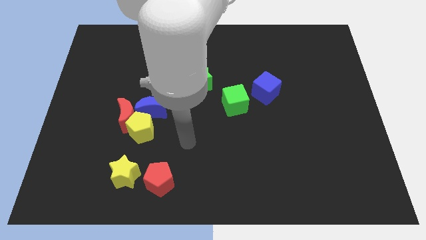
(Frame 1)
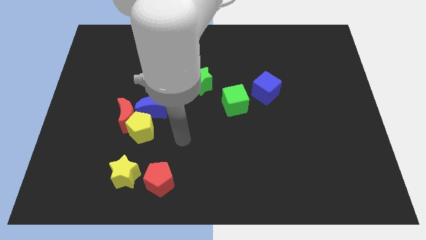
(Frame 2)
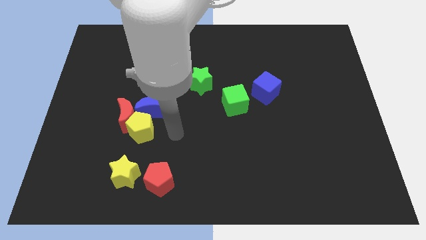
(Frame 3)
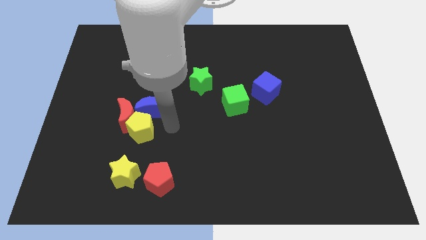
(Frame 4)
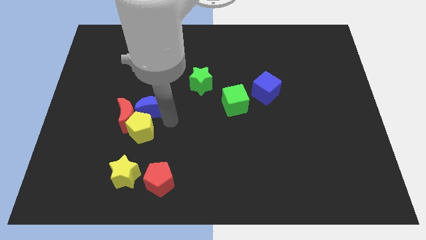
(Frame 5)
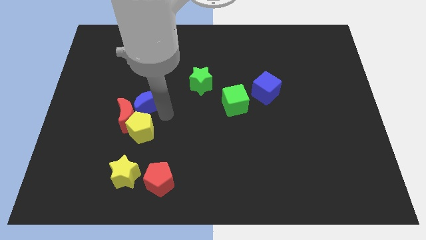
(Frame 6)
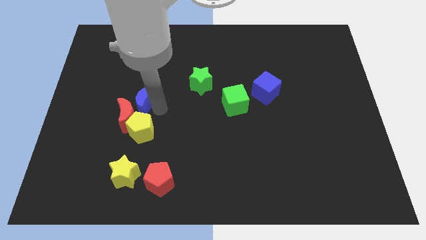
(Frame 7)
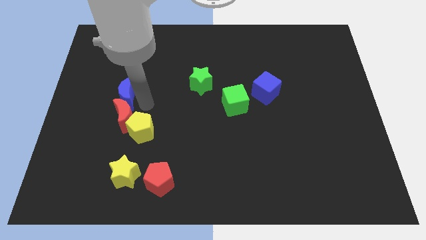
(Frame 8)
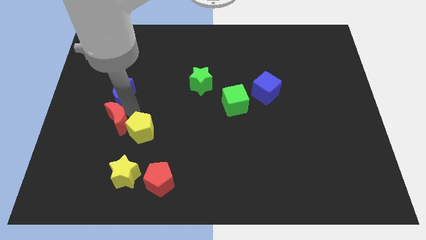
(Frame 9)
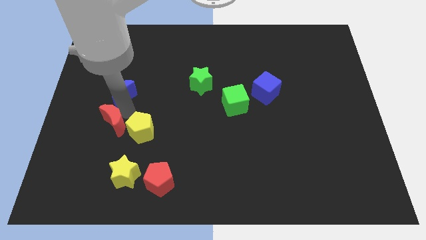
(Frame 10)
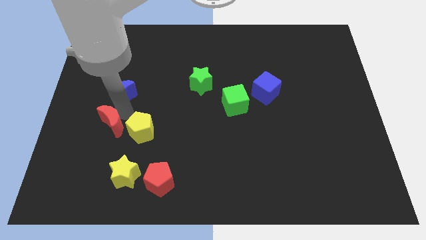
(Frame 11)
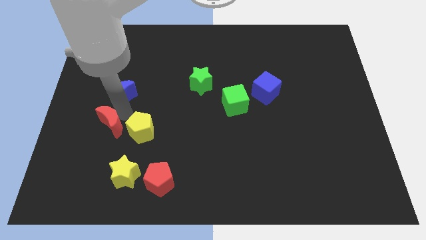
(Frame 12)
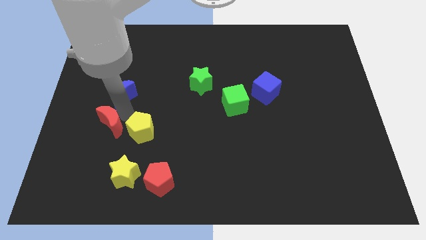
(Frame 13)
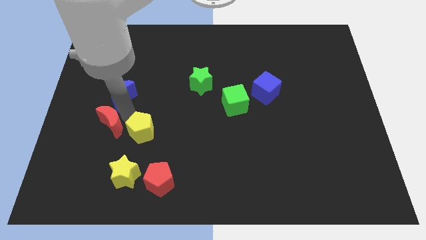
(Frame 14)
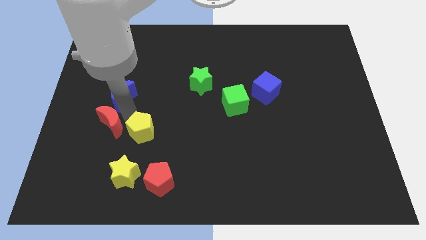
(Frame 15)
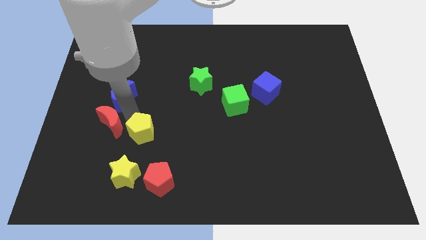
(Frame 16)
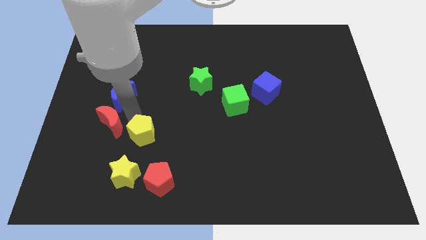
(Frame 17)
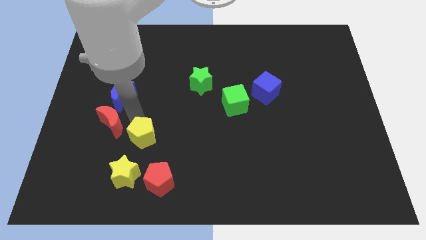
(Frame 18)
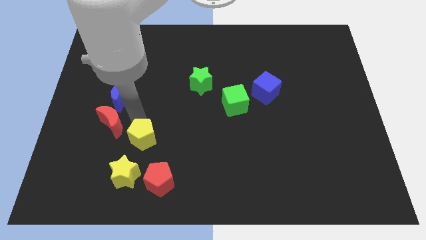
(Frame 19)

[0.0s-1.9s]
separate the yellow pentagon from the red moon and blue moon

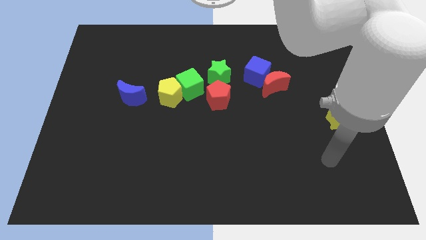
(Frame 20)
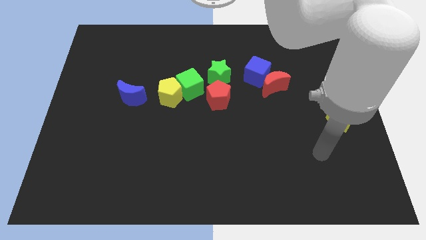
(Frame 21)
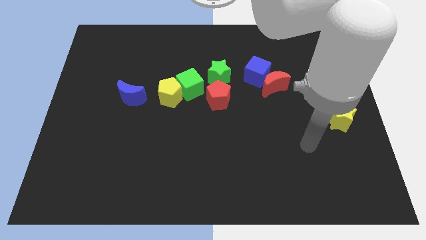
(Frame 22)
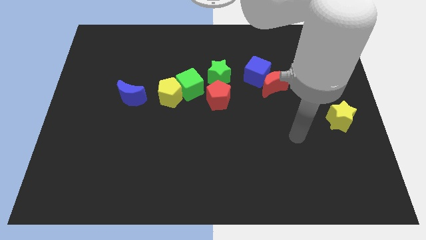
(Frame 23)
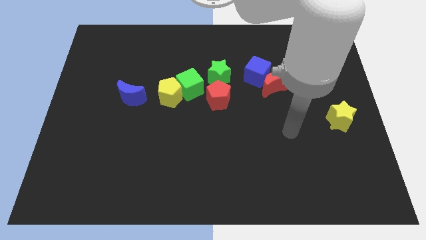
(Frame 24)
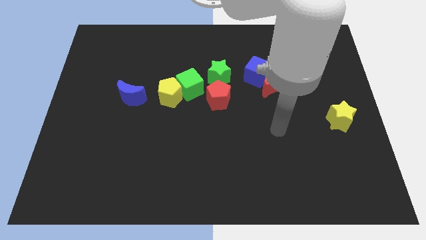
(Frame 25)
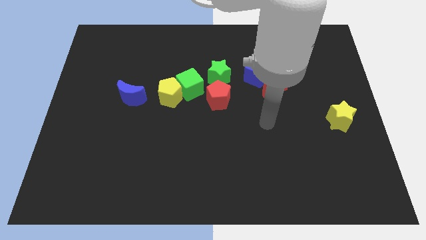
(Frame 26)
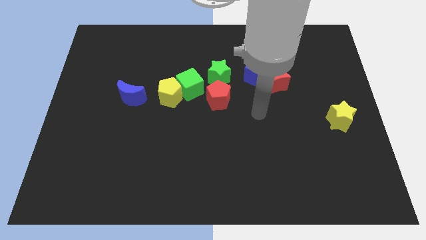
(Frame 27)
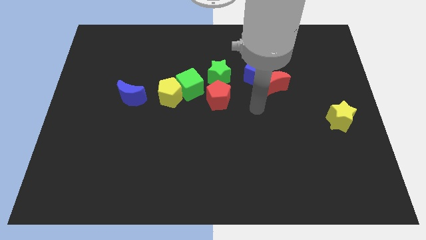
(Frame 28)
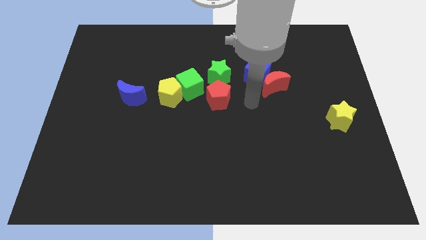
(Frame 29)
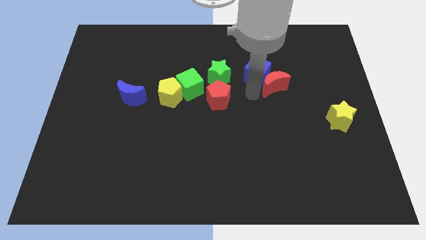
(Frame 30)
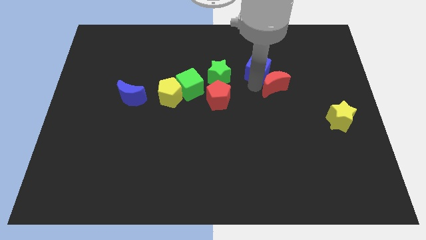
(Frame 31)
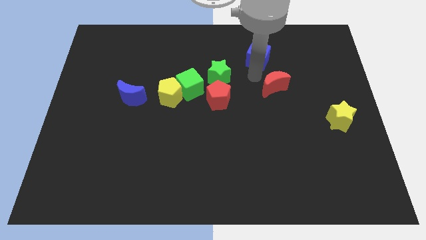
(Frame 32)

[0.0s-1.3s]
move the red moon away from the blue cube

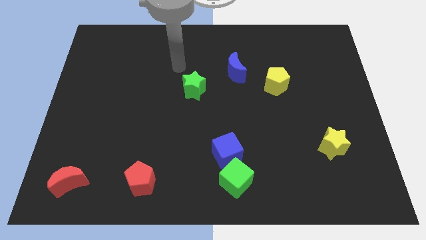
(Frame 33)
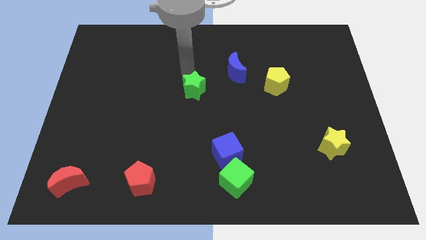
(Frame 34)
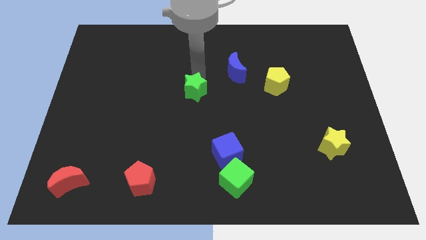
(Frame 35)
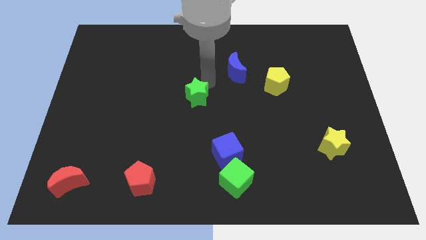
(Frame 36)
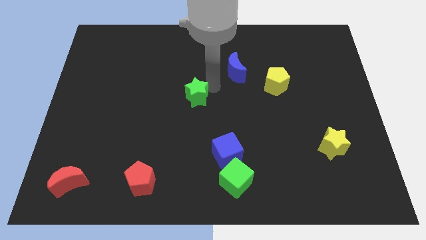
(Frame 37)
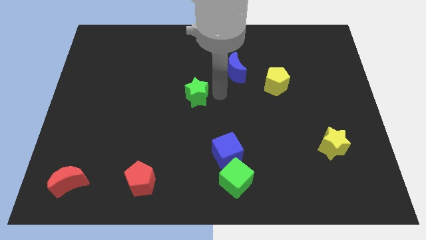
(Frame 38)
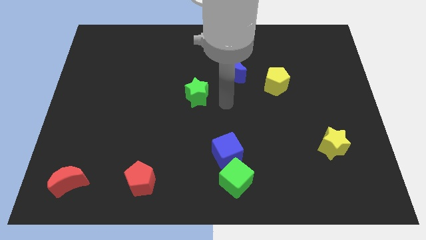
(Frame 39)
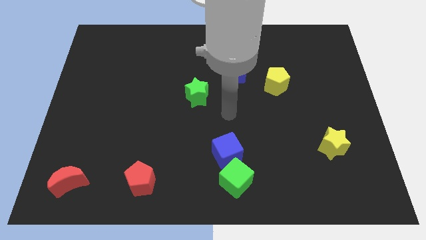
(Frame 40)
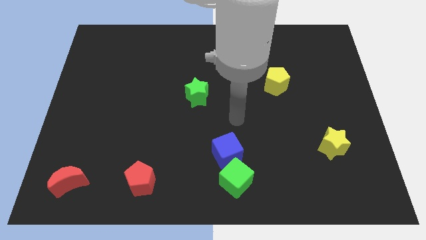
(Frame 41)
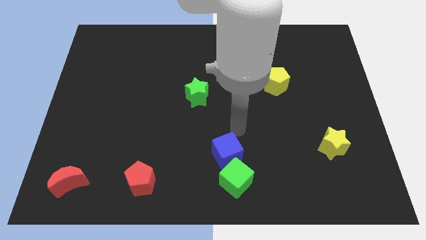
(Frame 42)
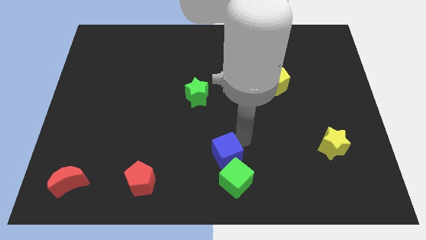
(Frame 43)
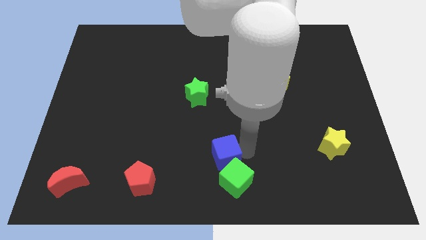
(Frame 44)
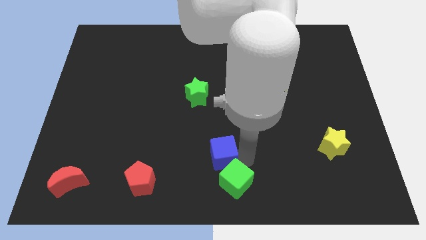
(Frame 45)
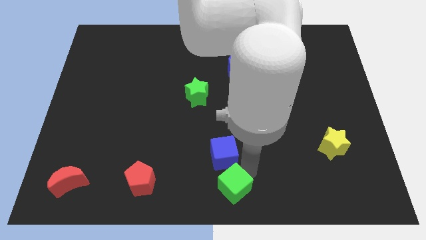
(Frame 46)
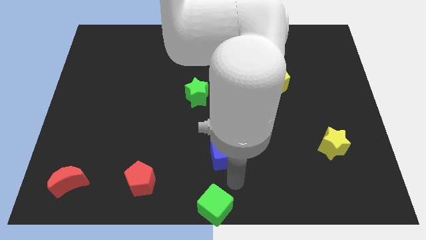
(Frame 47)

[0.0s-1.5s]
pull the blue cube apart from the green cube

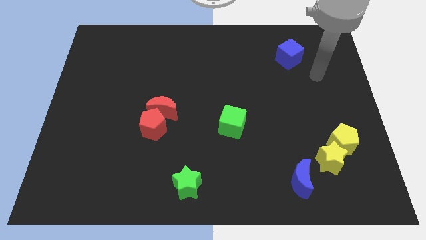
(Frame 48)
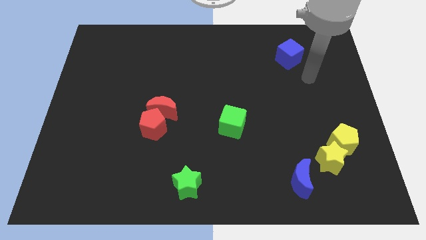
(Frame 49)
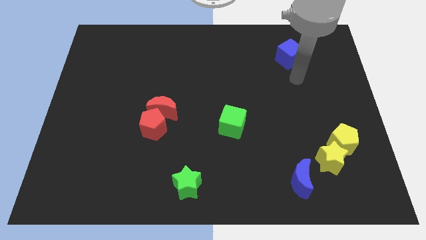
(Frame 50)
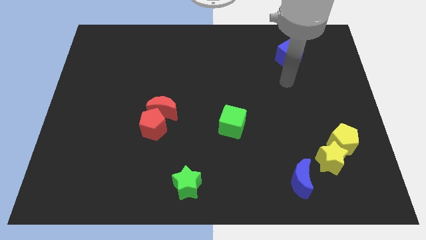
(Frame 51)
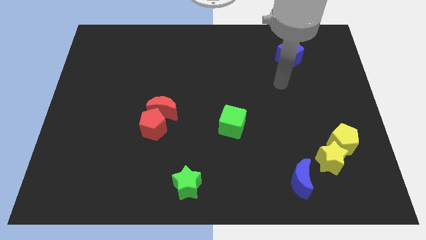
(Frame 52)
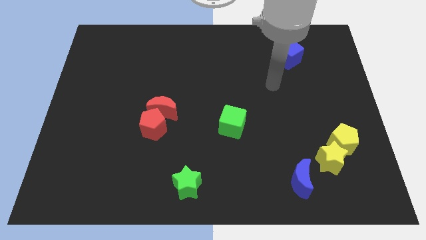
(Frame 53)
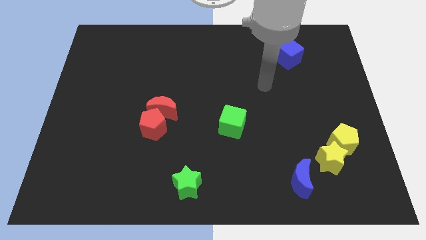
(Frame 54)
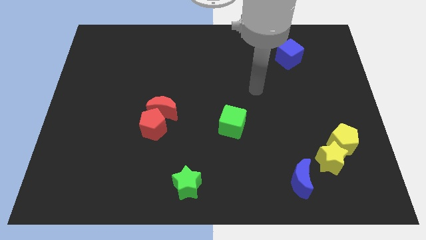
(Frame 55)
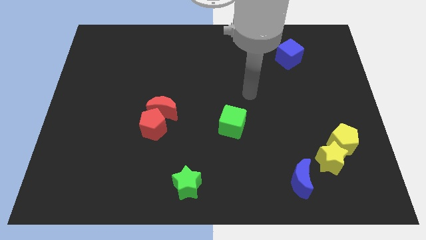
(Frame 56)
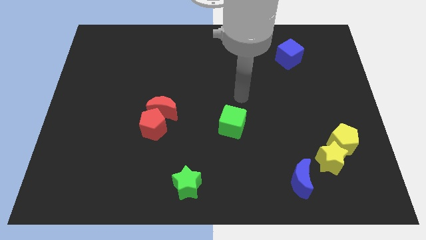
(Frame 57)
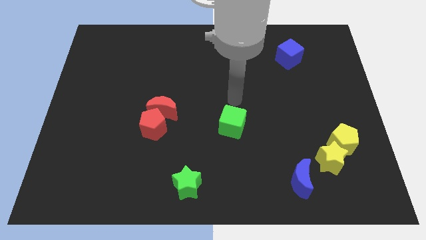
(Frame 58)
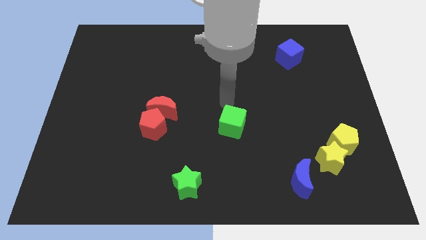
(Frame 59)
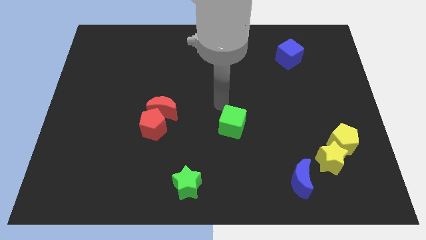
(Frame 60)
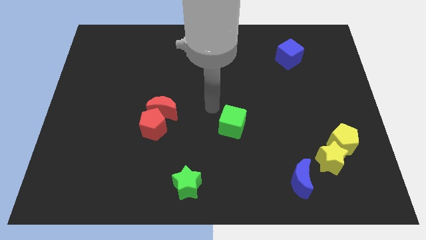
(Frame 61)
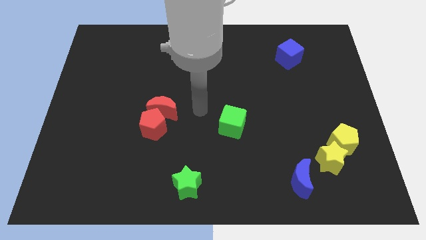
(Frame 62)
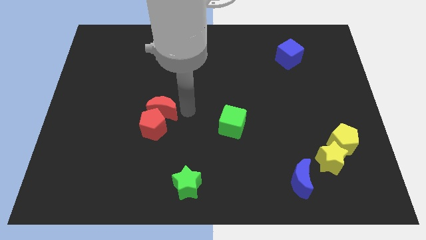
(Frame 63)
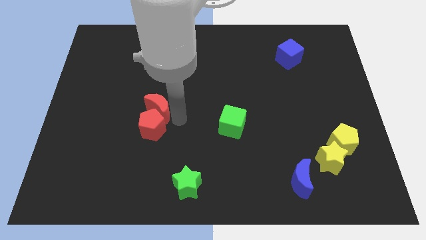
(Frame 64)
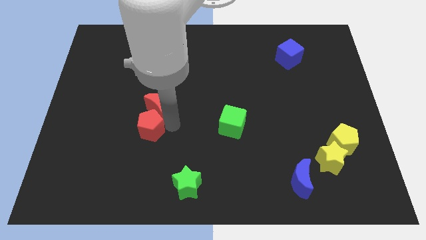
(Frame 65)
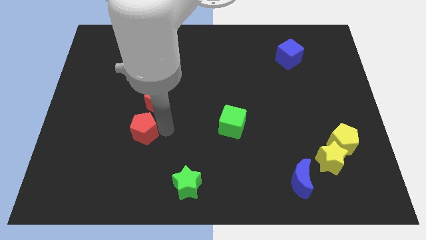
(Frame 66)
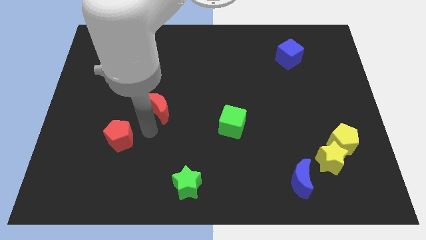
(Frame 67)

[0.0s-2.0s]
separate the red moon from the red pentagon

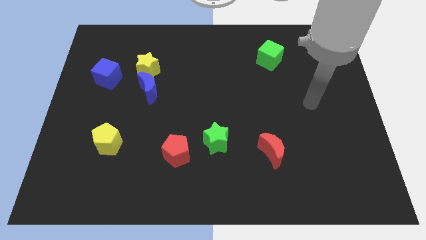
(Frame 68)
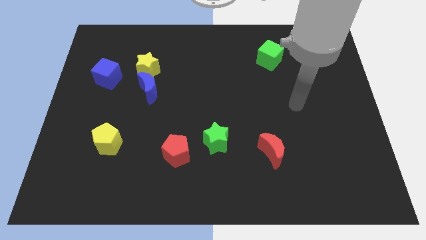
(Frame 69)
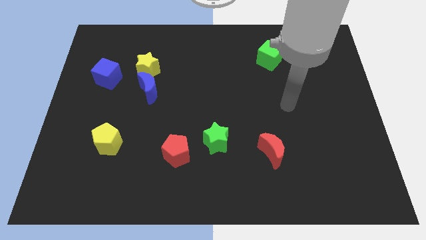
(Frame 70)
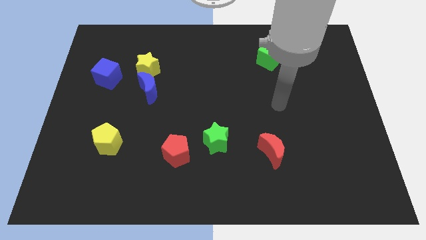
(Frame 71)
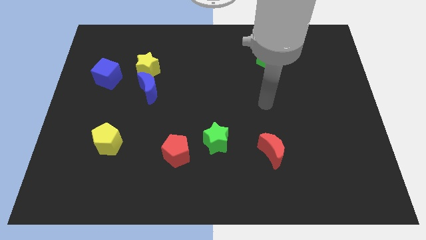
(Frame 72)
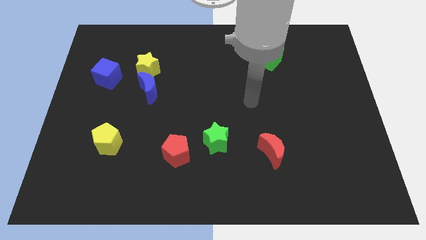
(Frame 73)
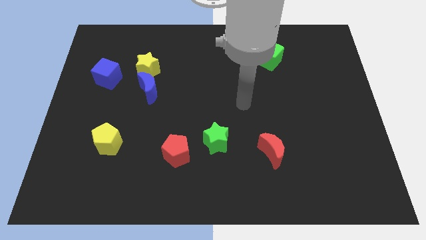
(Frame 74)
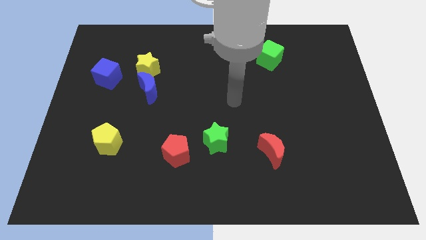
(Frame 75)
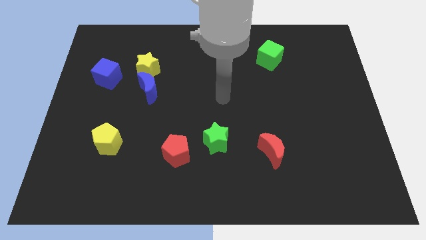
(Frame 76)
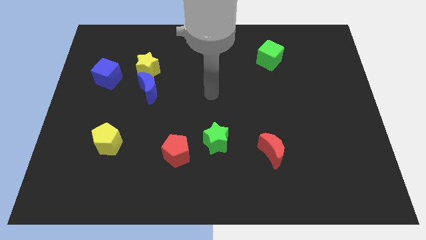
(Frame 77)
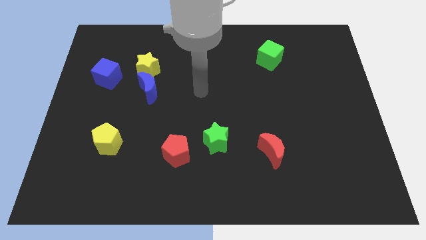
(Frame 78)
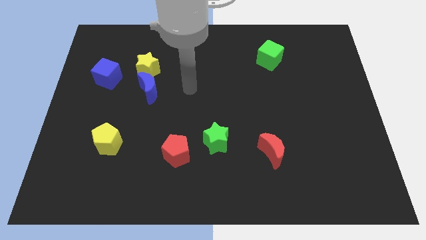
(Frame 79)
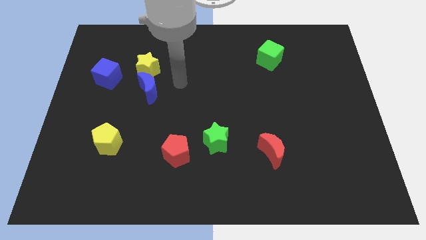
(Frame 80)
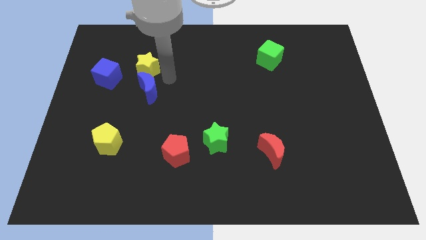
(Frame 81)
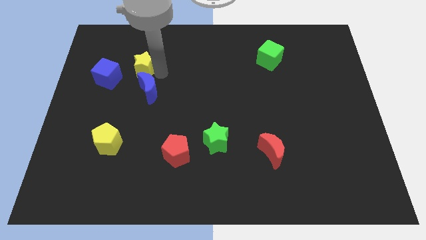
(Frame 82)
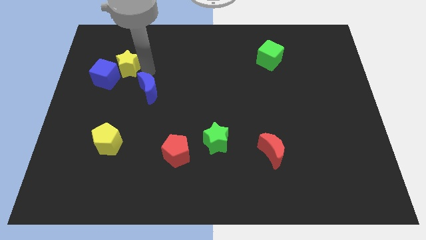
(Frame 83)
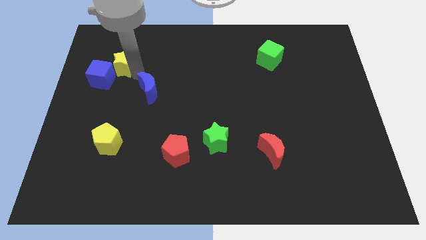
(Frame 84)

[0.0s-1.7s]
separate the blue moon from the yellow star

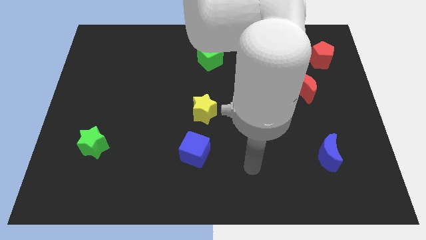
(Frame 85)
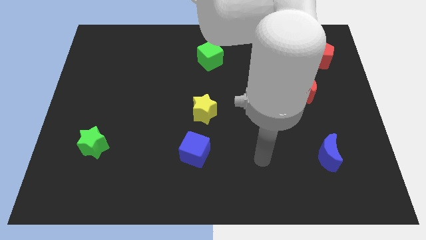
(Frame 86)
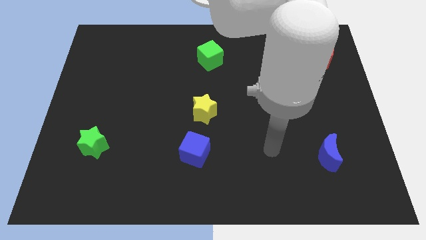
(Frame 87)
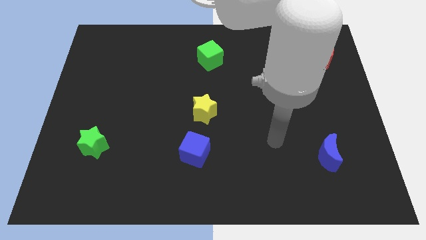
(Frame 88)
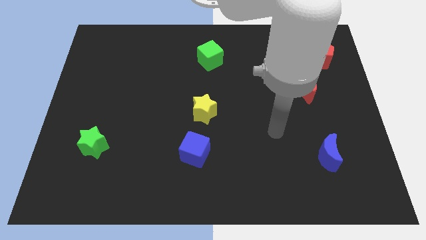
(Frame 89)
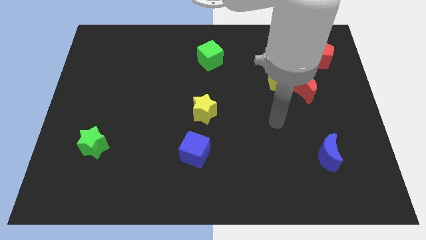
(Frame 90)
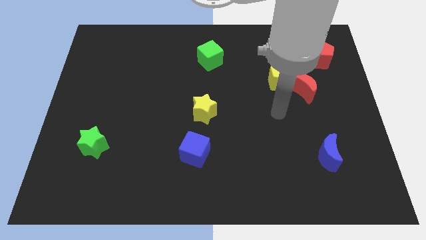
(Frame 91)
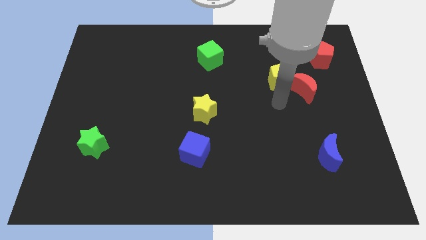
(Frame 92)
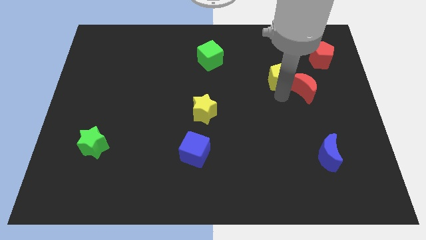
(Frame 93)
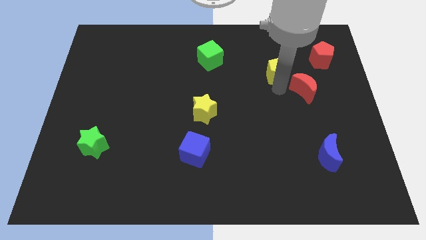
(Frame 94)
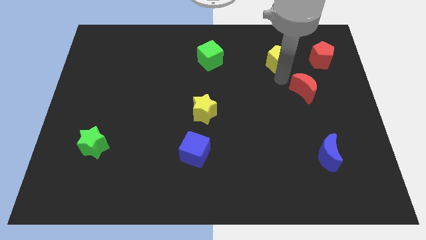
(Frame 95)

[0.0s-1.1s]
separate the red moon from the yellow pentagon
